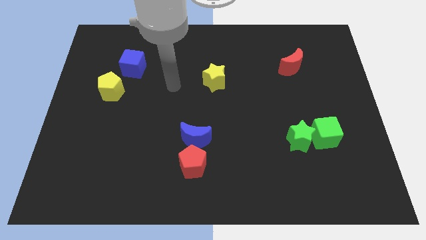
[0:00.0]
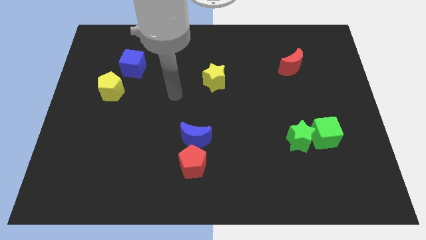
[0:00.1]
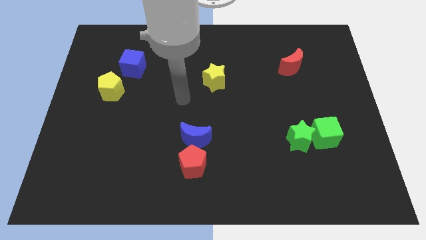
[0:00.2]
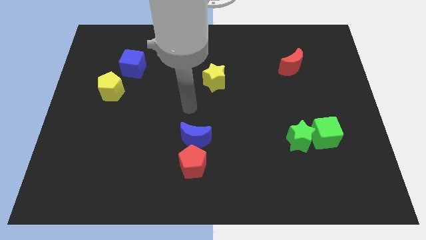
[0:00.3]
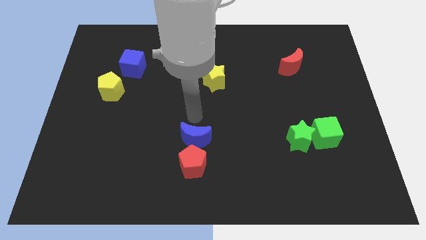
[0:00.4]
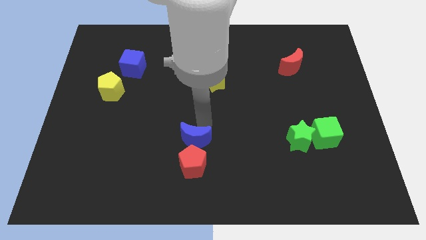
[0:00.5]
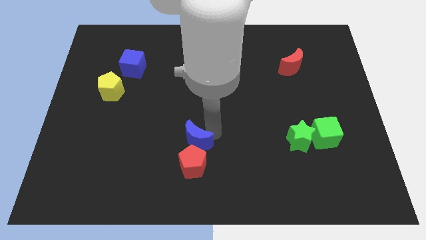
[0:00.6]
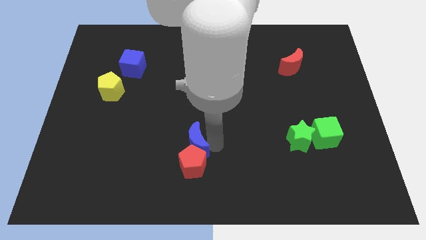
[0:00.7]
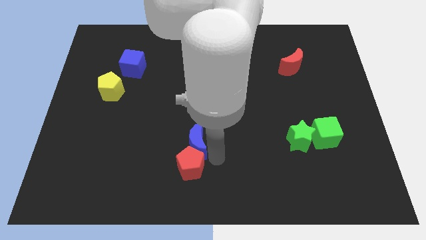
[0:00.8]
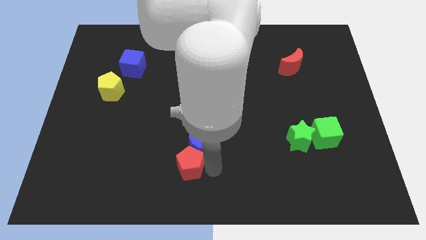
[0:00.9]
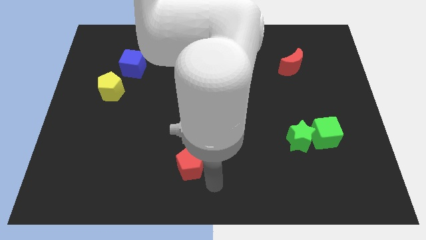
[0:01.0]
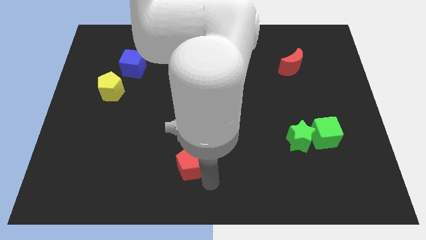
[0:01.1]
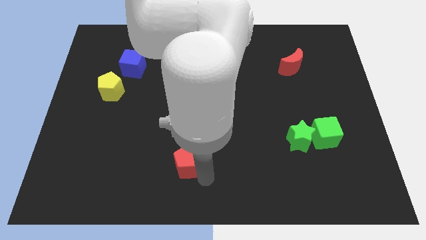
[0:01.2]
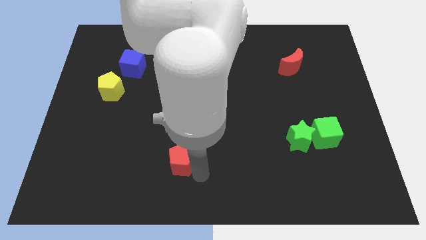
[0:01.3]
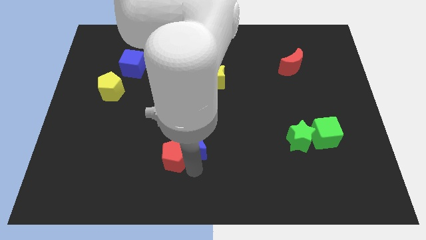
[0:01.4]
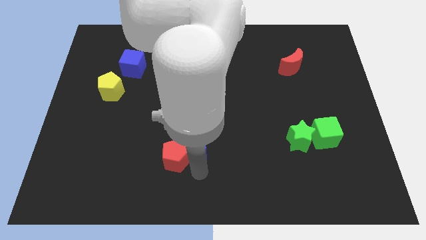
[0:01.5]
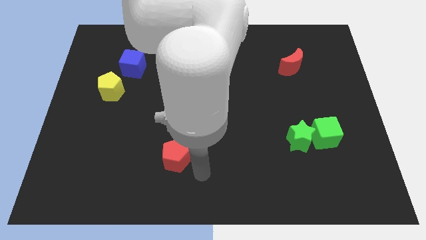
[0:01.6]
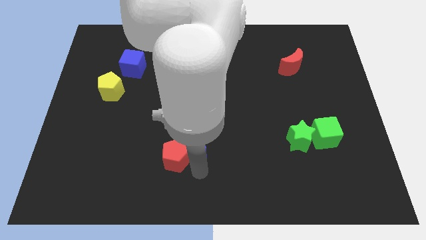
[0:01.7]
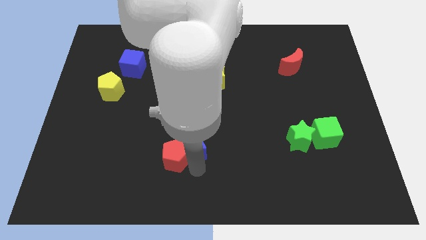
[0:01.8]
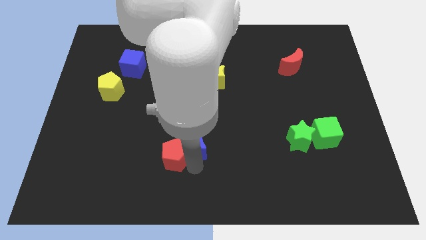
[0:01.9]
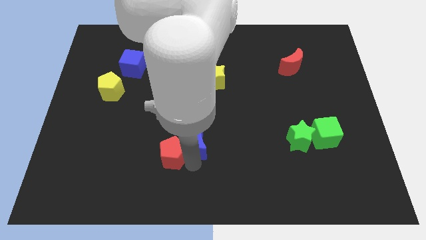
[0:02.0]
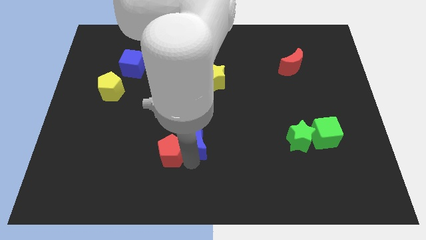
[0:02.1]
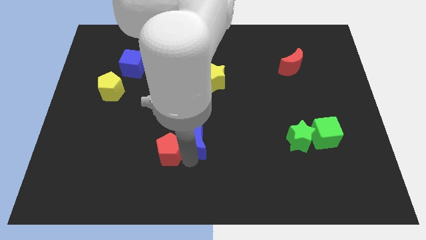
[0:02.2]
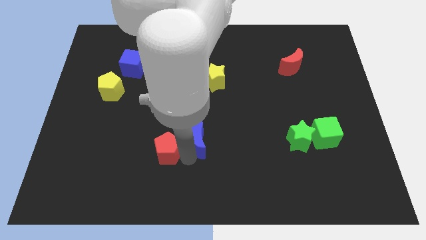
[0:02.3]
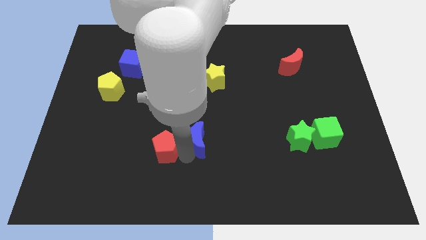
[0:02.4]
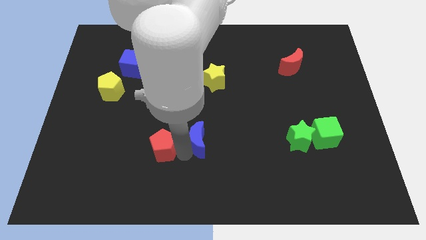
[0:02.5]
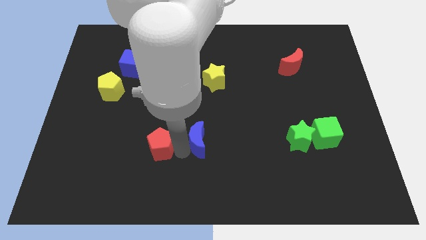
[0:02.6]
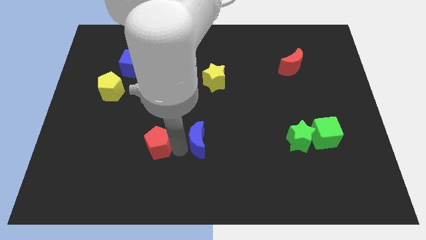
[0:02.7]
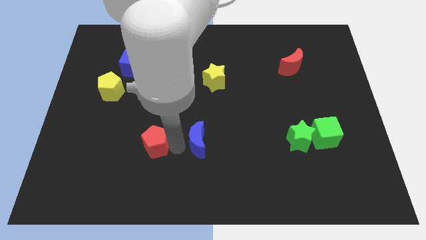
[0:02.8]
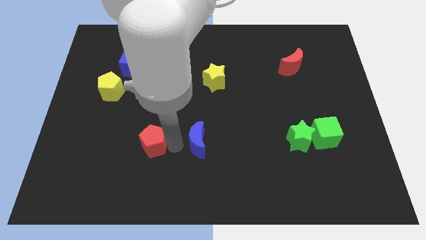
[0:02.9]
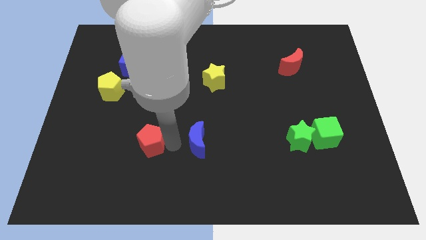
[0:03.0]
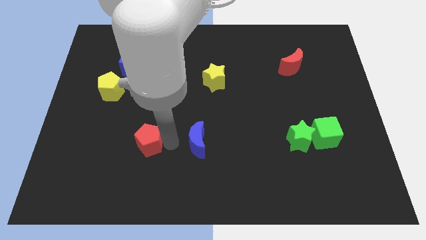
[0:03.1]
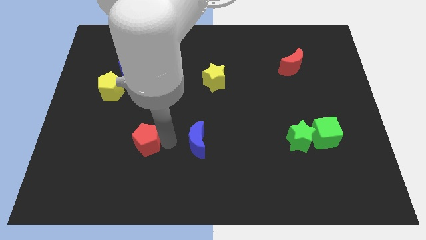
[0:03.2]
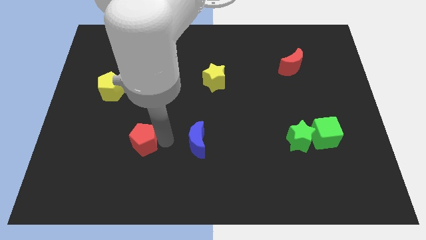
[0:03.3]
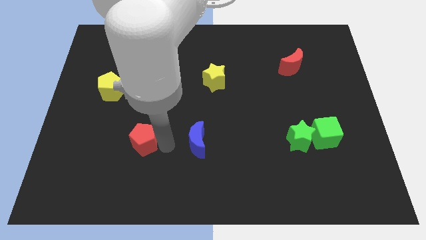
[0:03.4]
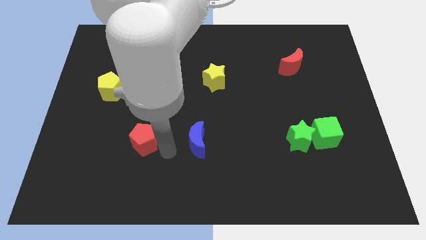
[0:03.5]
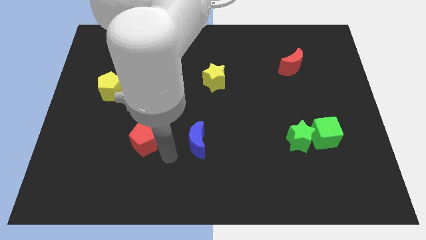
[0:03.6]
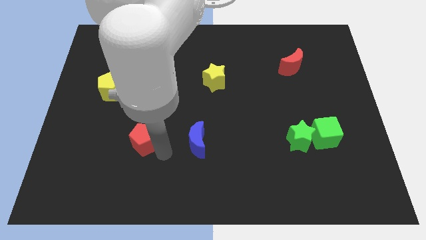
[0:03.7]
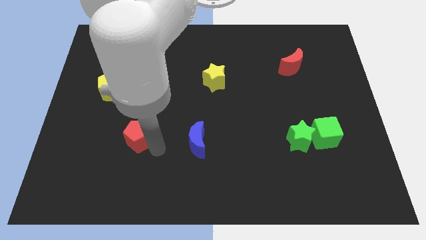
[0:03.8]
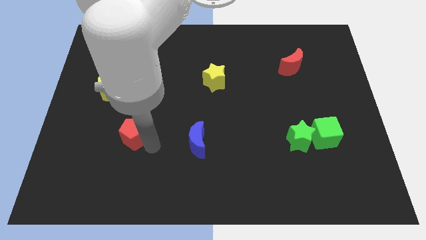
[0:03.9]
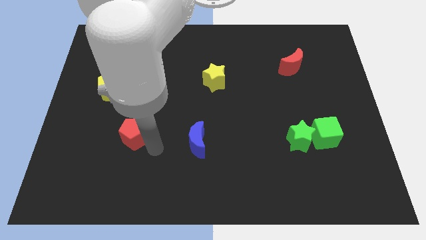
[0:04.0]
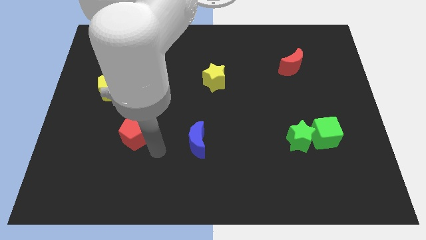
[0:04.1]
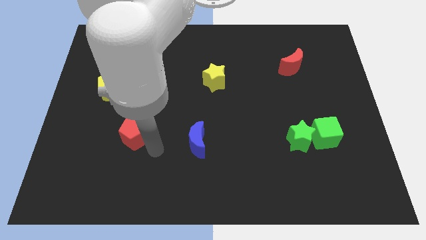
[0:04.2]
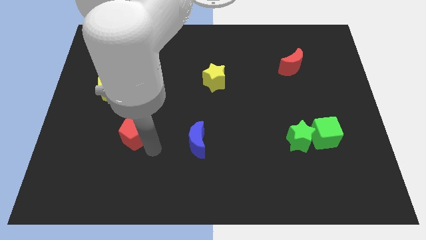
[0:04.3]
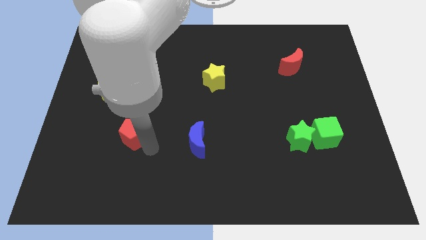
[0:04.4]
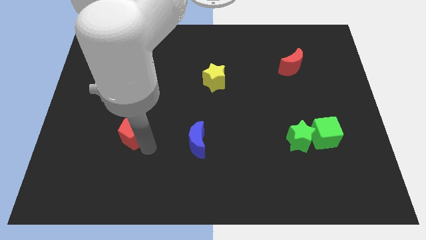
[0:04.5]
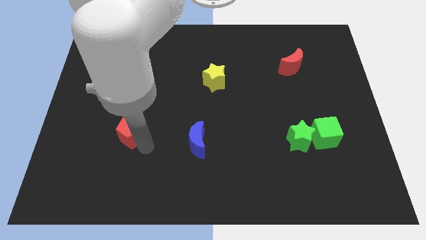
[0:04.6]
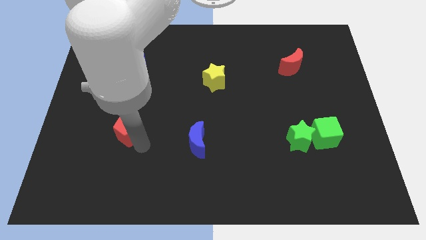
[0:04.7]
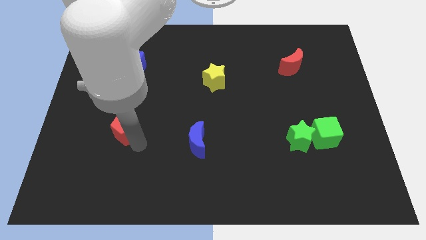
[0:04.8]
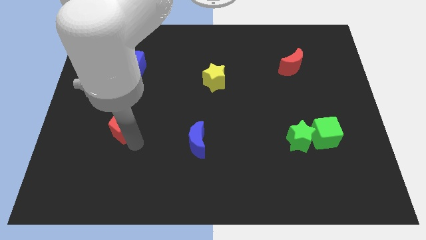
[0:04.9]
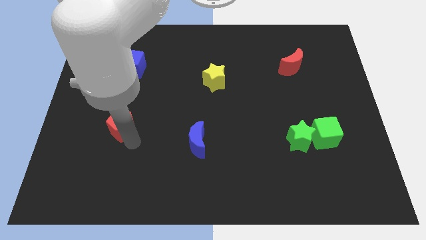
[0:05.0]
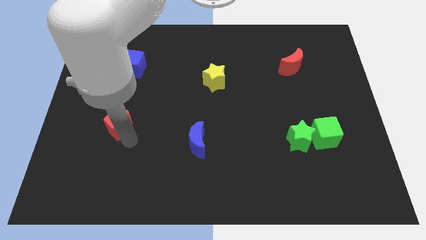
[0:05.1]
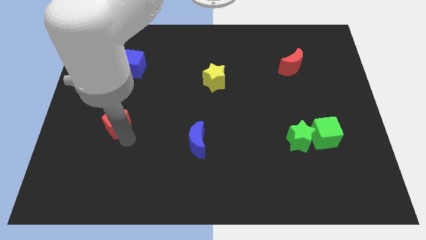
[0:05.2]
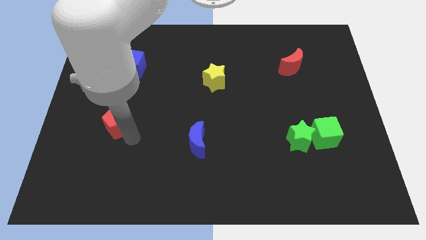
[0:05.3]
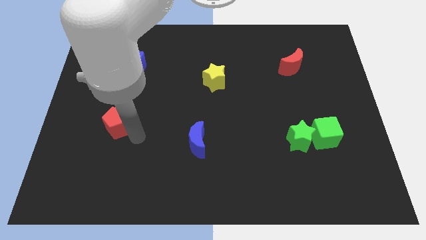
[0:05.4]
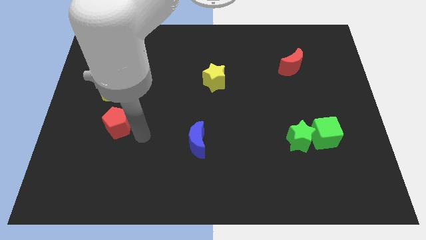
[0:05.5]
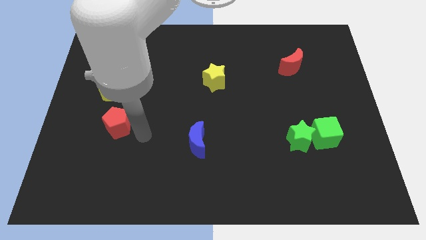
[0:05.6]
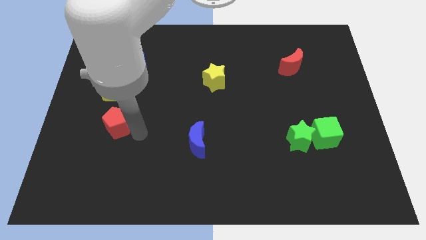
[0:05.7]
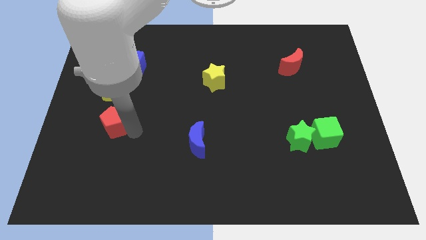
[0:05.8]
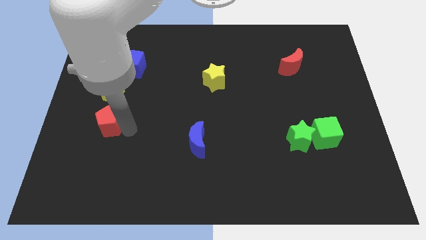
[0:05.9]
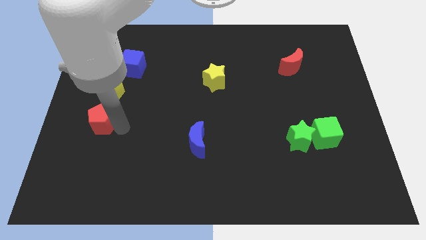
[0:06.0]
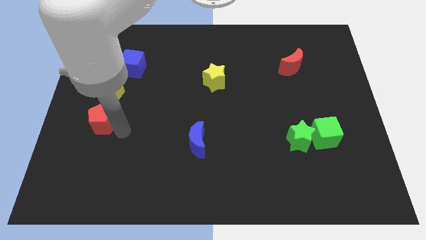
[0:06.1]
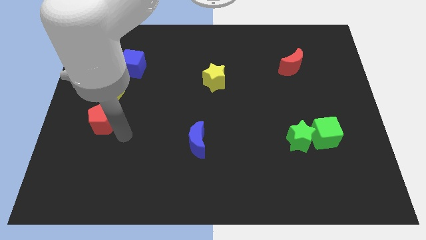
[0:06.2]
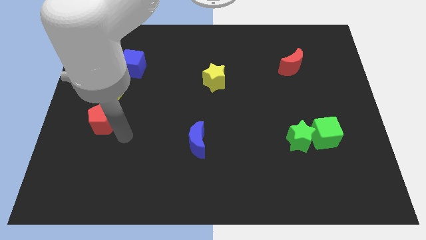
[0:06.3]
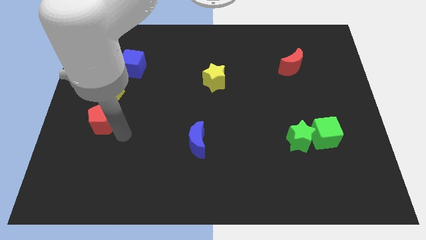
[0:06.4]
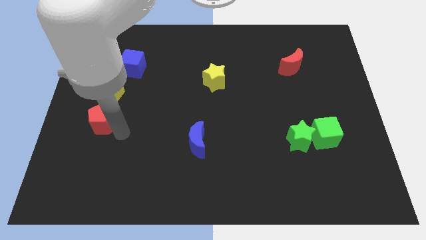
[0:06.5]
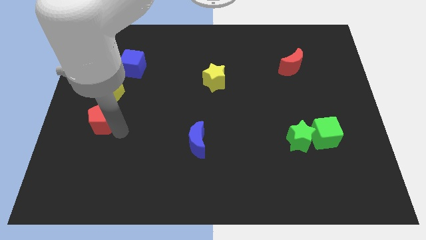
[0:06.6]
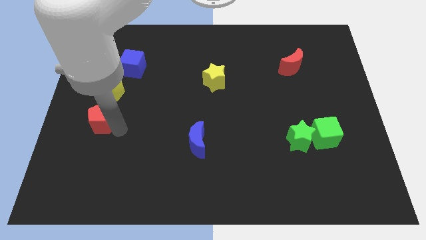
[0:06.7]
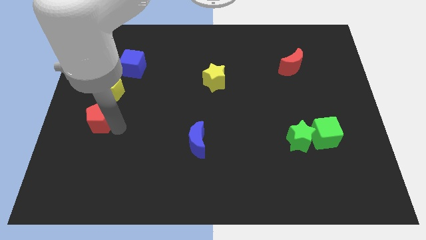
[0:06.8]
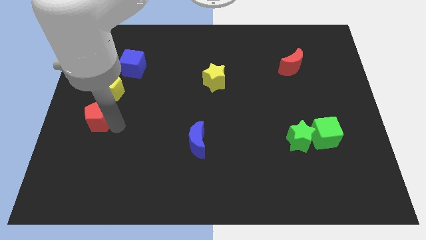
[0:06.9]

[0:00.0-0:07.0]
put the red pentagon to the center left
